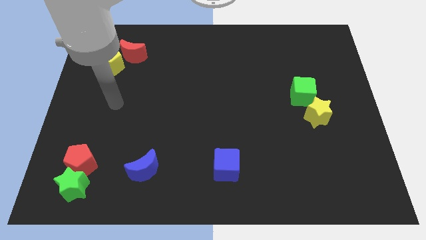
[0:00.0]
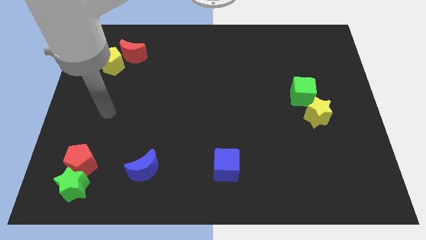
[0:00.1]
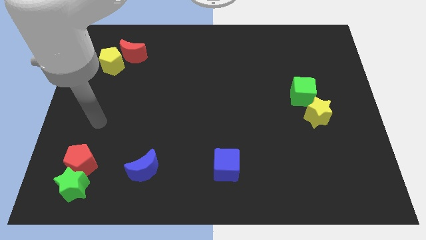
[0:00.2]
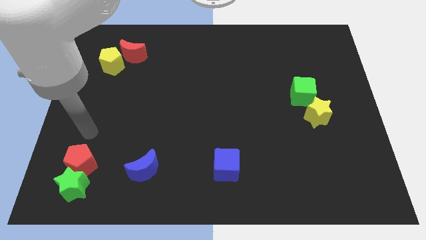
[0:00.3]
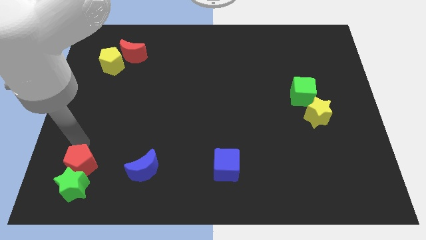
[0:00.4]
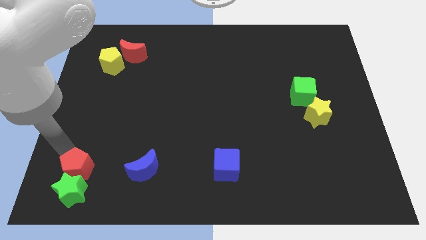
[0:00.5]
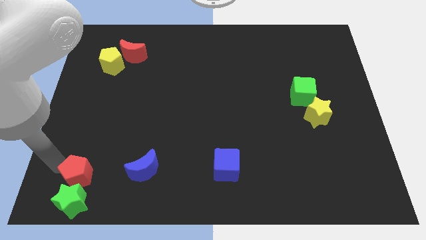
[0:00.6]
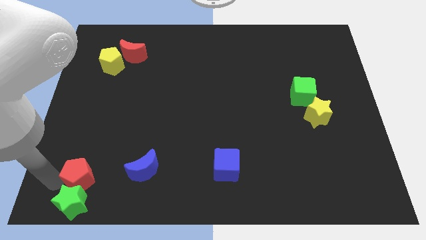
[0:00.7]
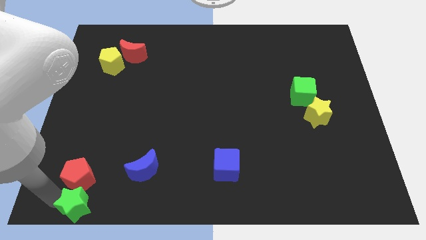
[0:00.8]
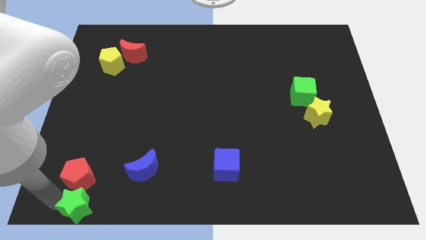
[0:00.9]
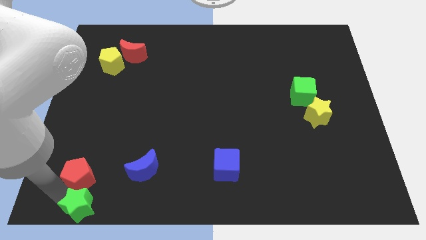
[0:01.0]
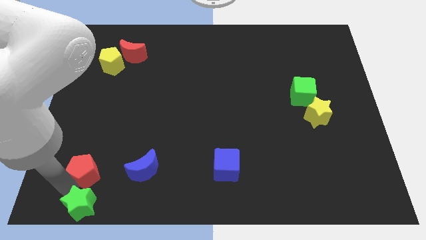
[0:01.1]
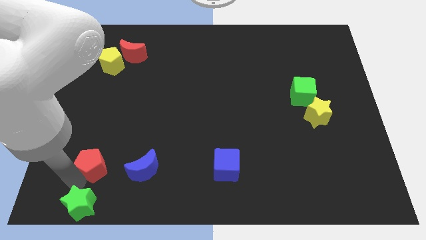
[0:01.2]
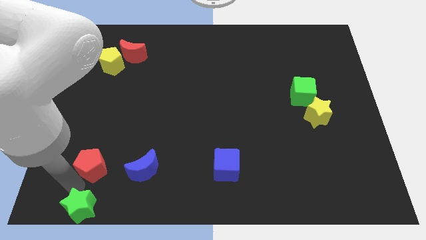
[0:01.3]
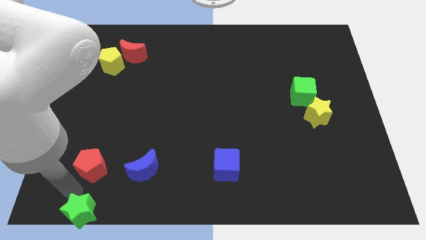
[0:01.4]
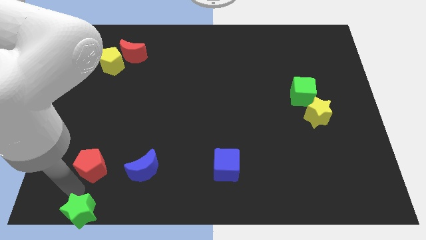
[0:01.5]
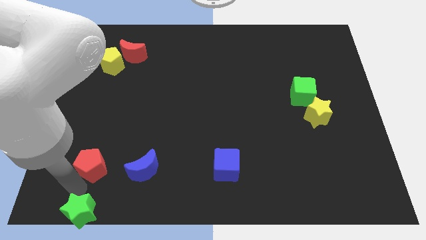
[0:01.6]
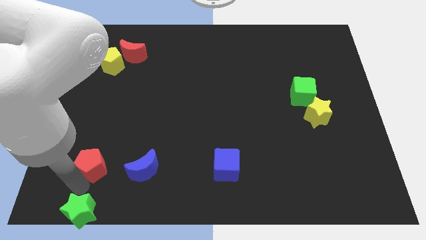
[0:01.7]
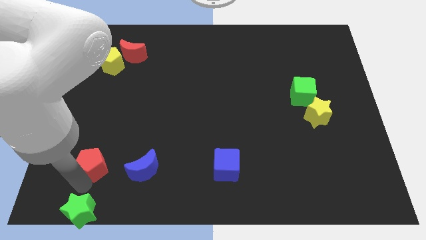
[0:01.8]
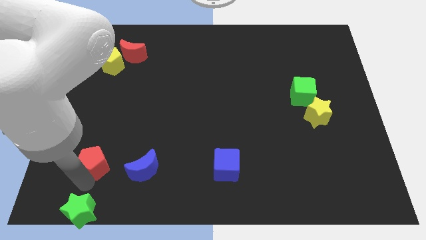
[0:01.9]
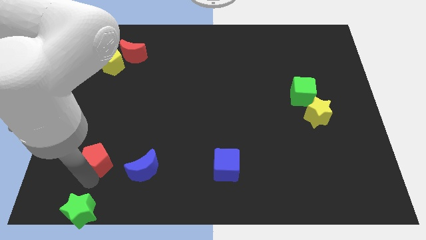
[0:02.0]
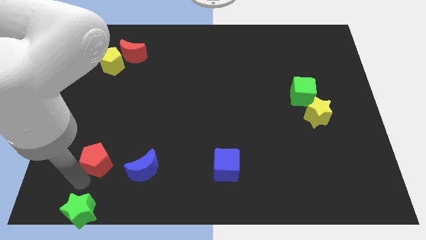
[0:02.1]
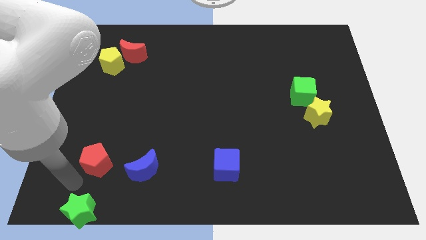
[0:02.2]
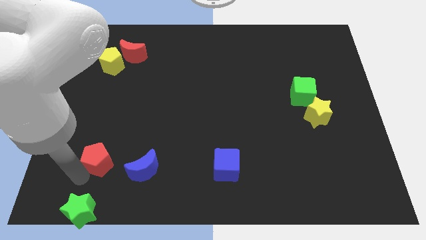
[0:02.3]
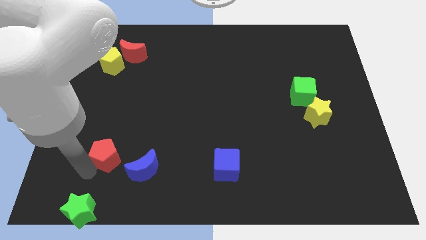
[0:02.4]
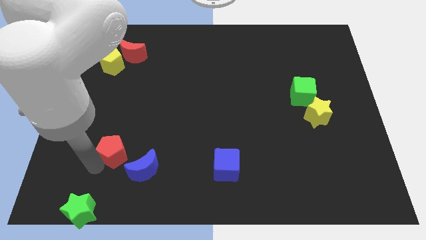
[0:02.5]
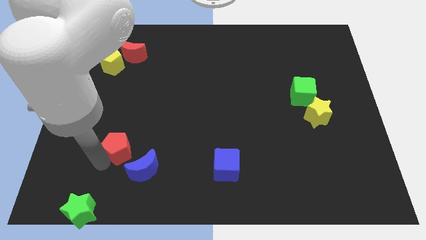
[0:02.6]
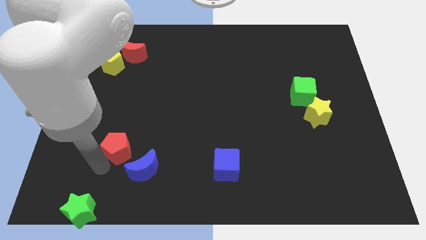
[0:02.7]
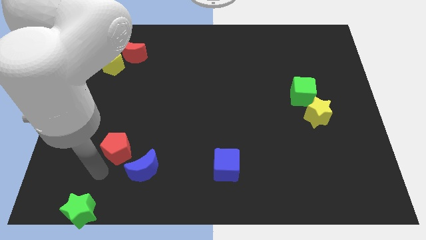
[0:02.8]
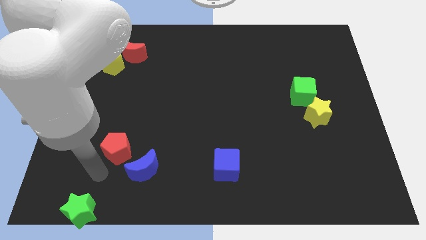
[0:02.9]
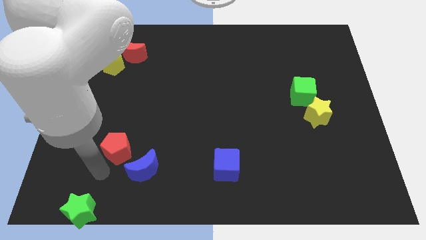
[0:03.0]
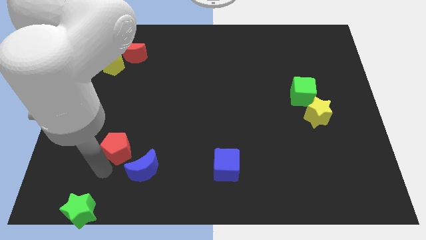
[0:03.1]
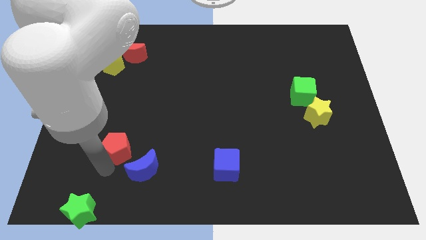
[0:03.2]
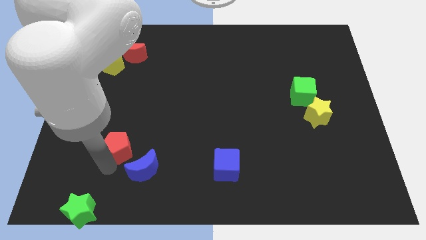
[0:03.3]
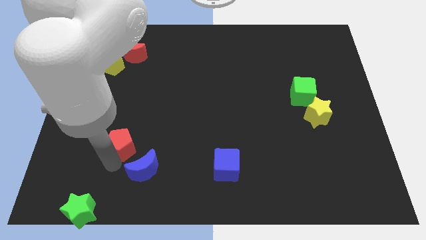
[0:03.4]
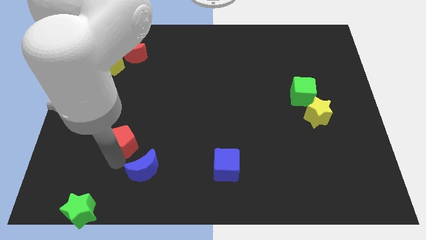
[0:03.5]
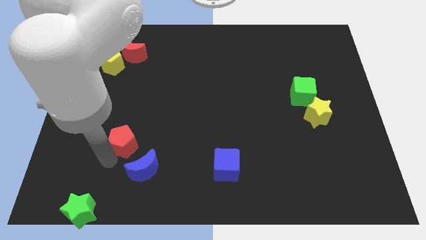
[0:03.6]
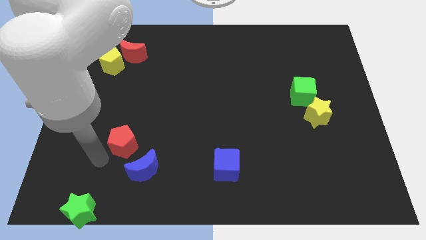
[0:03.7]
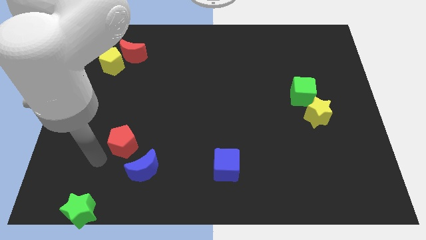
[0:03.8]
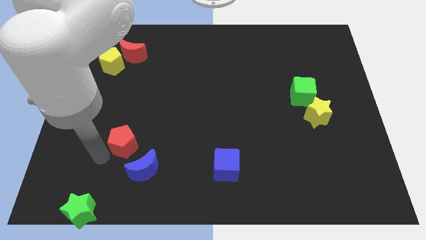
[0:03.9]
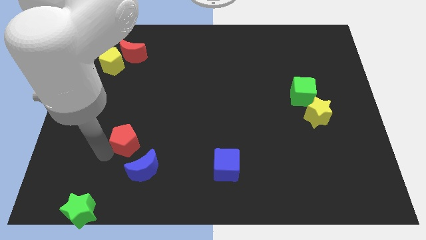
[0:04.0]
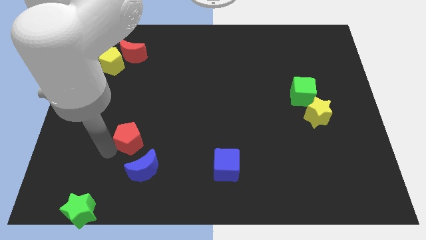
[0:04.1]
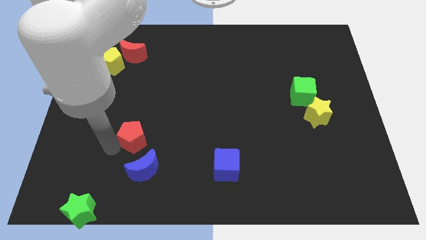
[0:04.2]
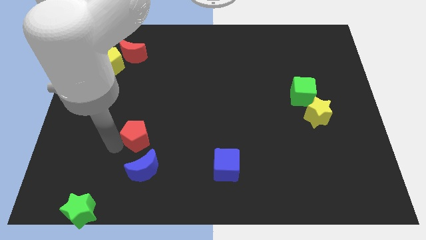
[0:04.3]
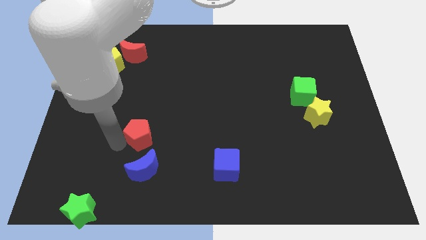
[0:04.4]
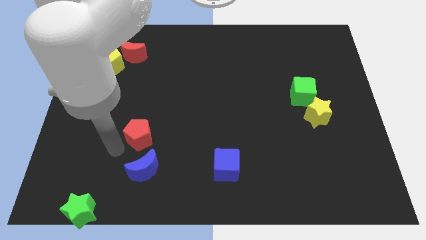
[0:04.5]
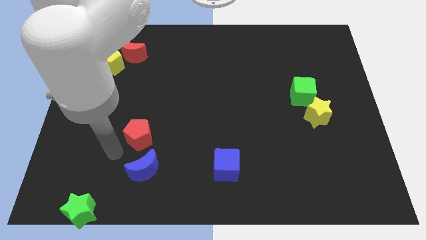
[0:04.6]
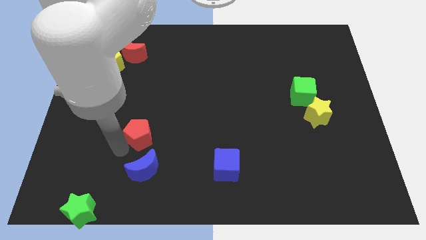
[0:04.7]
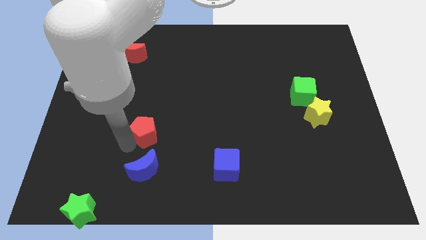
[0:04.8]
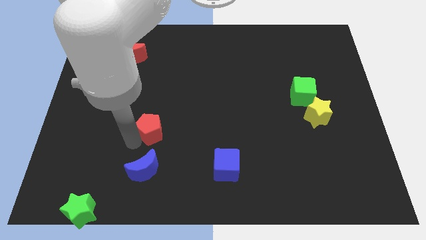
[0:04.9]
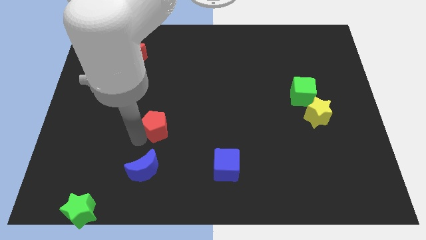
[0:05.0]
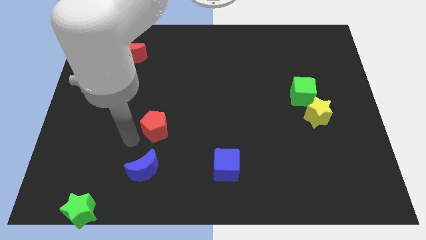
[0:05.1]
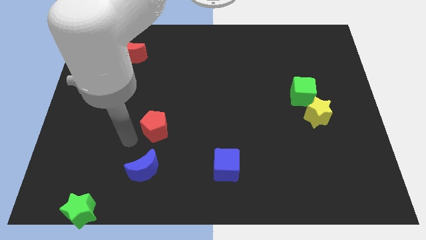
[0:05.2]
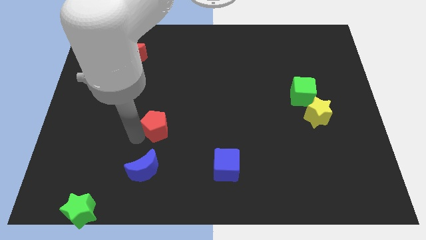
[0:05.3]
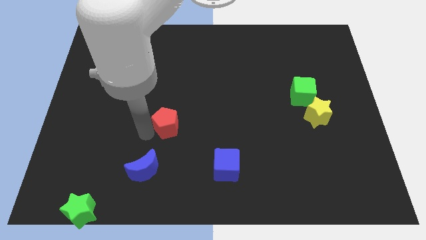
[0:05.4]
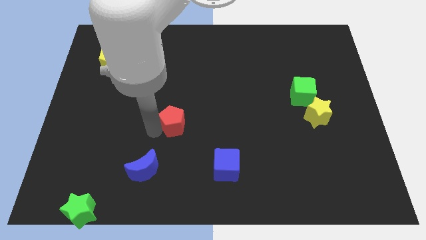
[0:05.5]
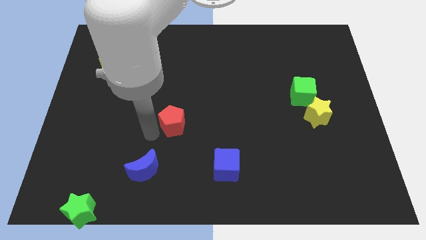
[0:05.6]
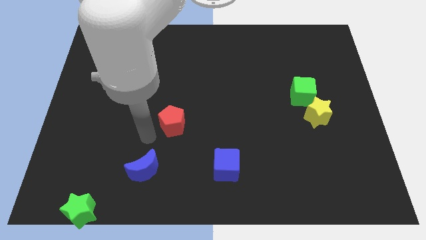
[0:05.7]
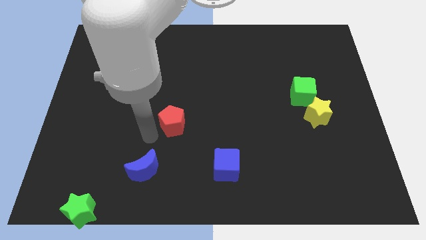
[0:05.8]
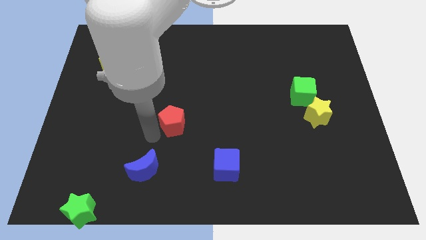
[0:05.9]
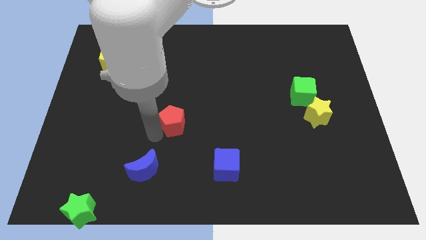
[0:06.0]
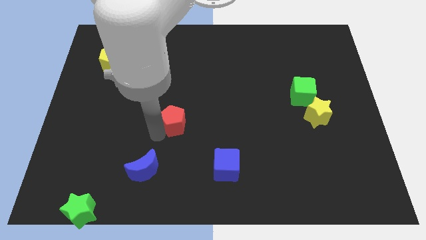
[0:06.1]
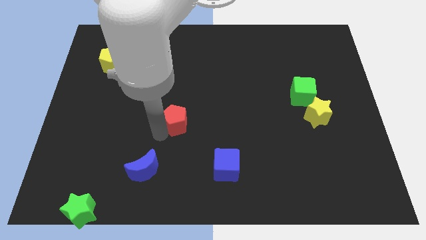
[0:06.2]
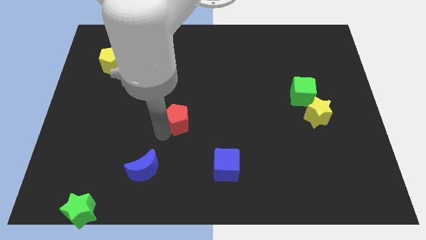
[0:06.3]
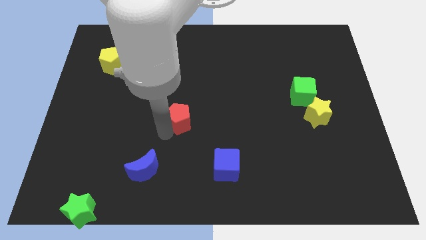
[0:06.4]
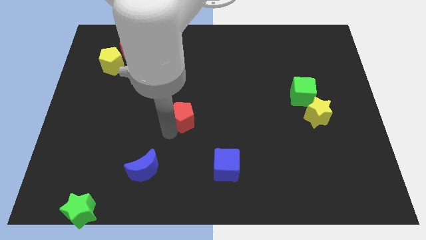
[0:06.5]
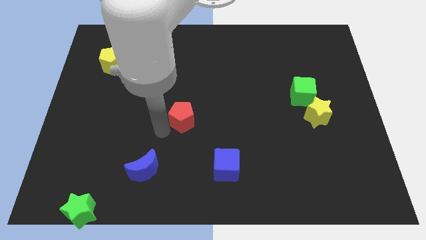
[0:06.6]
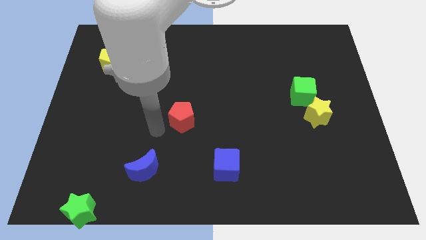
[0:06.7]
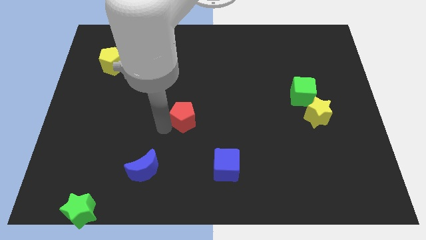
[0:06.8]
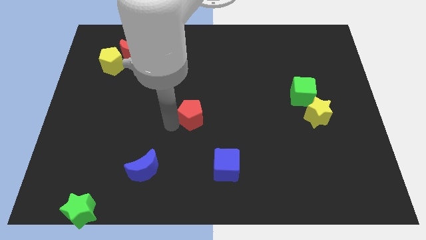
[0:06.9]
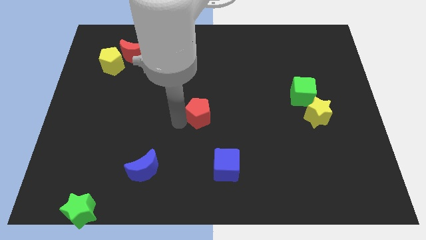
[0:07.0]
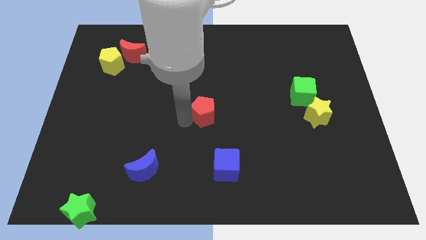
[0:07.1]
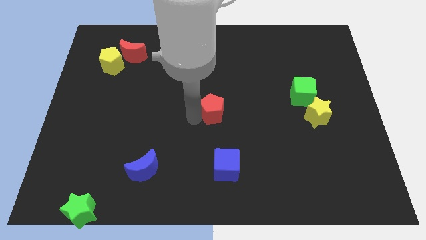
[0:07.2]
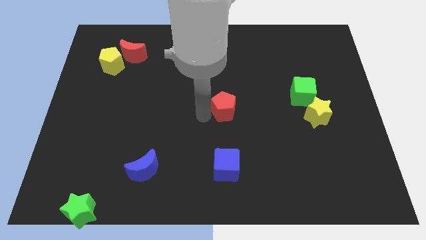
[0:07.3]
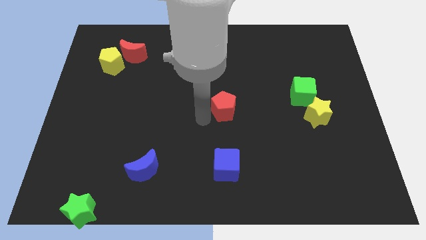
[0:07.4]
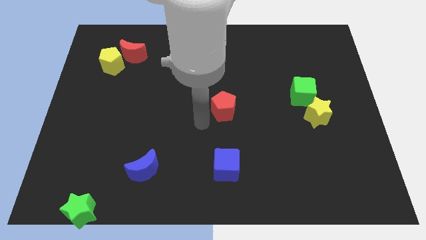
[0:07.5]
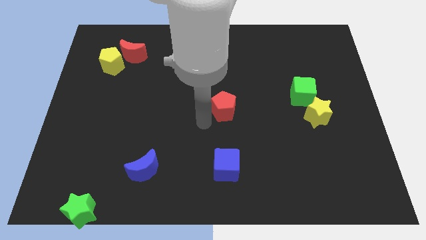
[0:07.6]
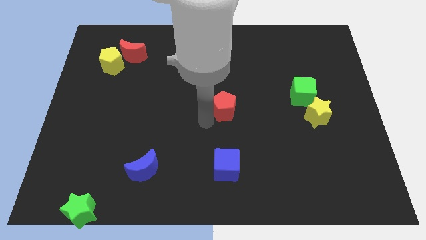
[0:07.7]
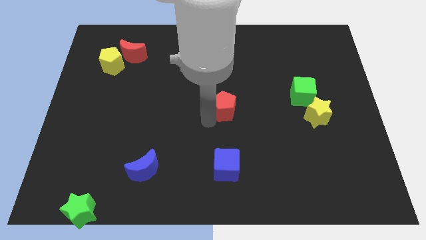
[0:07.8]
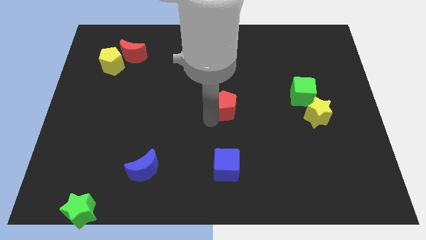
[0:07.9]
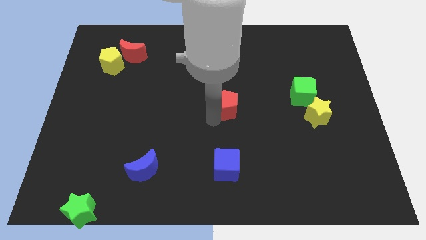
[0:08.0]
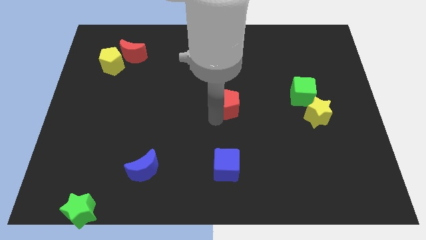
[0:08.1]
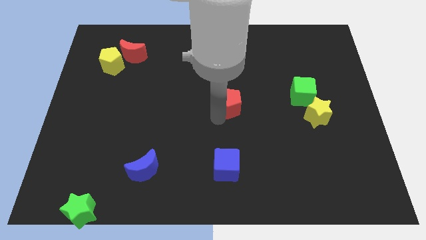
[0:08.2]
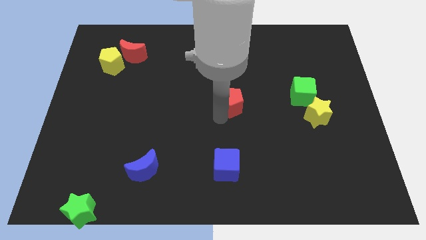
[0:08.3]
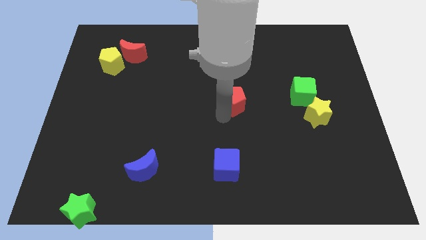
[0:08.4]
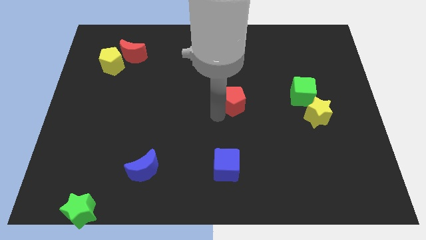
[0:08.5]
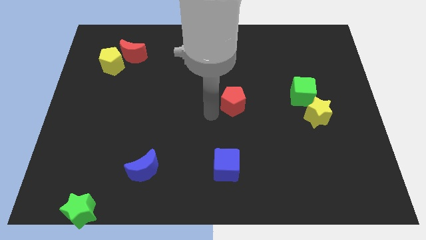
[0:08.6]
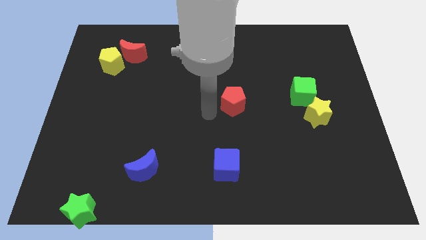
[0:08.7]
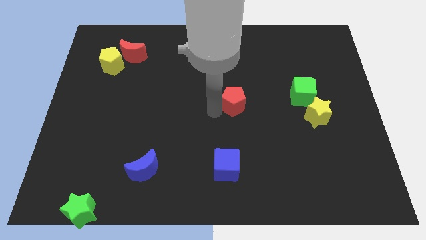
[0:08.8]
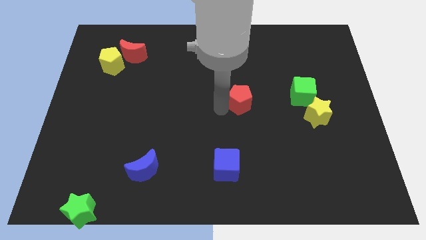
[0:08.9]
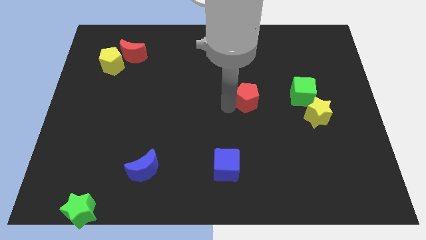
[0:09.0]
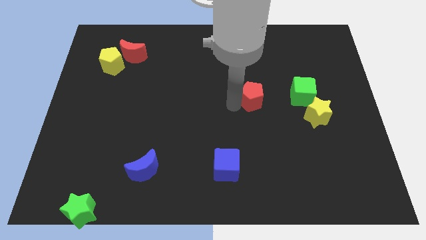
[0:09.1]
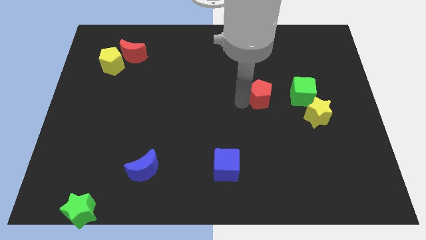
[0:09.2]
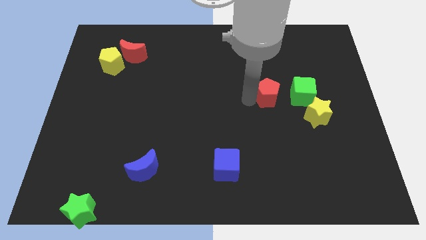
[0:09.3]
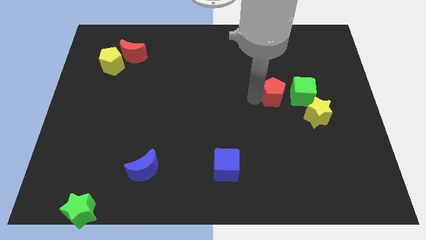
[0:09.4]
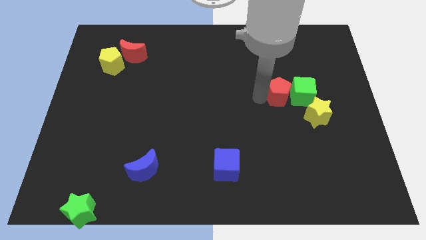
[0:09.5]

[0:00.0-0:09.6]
put the red pentagon towards the green cube
